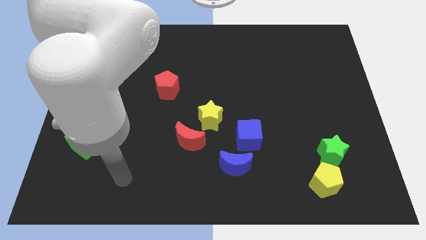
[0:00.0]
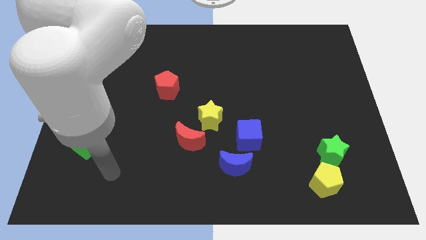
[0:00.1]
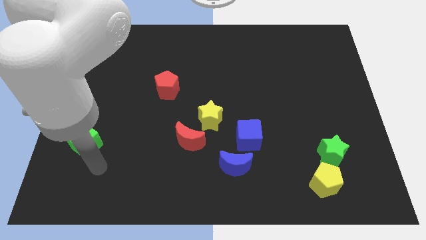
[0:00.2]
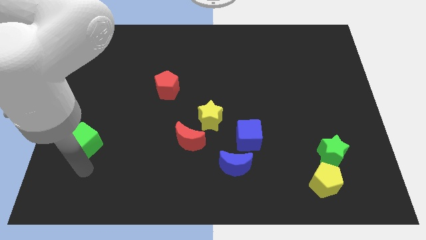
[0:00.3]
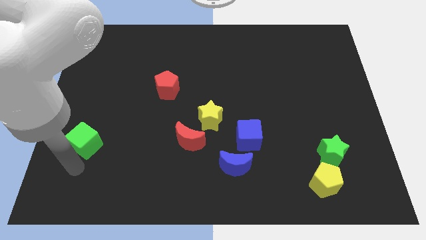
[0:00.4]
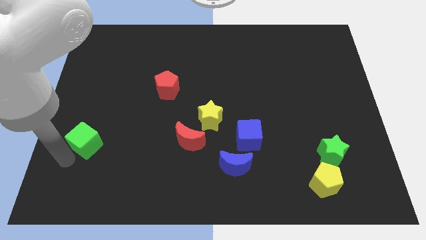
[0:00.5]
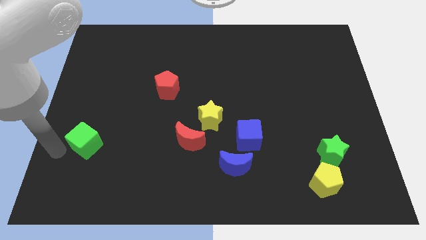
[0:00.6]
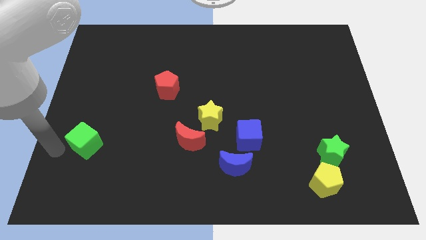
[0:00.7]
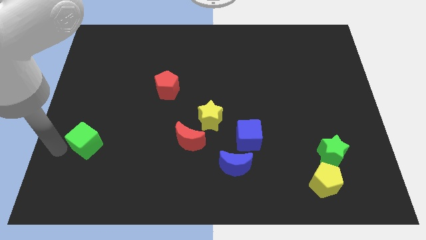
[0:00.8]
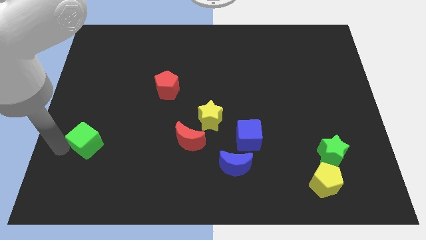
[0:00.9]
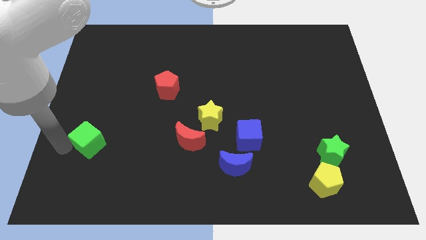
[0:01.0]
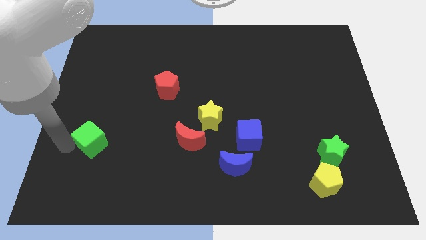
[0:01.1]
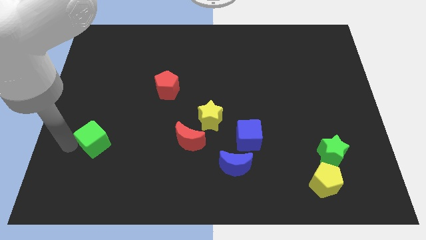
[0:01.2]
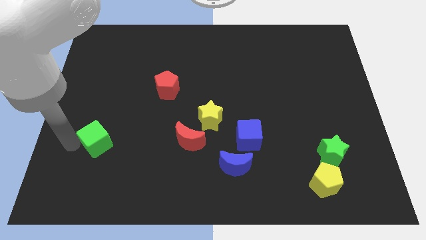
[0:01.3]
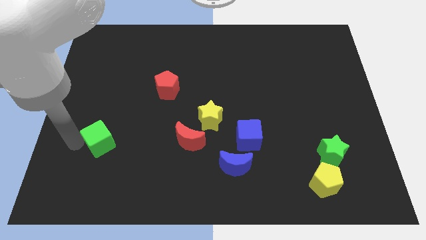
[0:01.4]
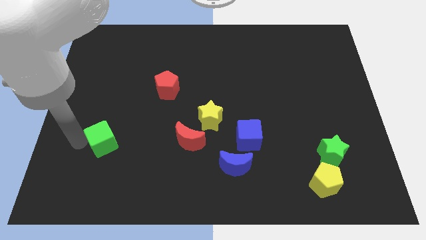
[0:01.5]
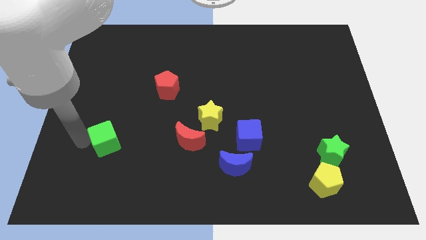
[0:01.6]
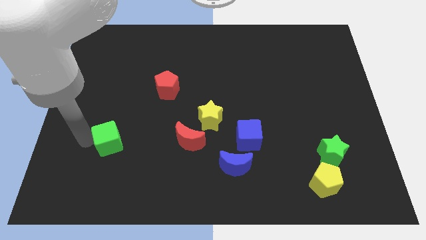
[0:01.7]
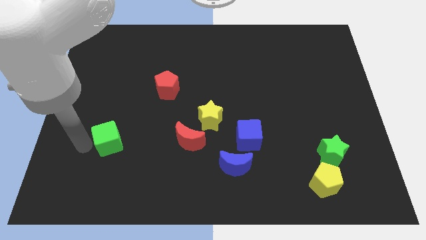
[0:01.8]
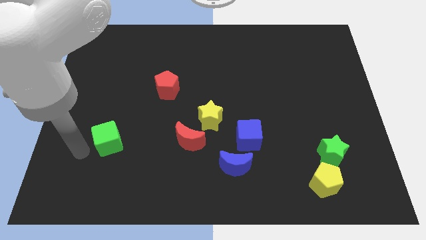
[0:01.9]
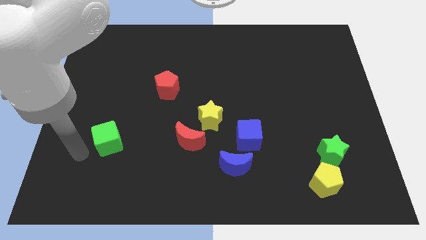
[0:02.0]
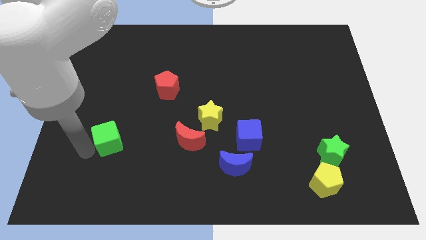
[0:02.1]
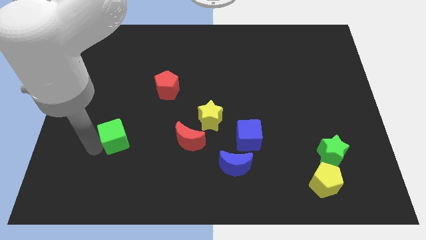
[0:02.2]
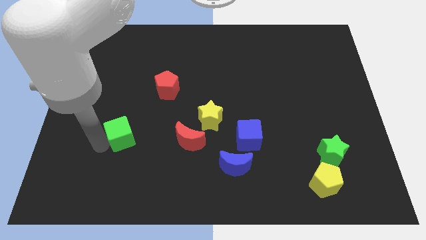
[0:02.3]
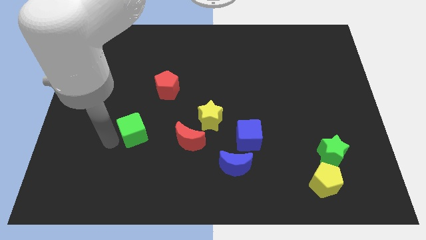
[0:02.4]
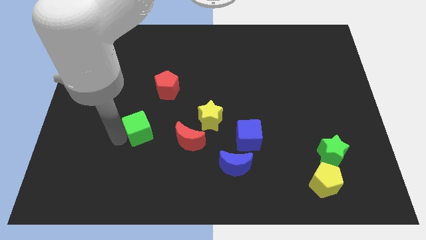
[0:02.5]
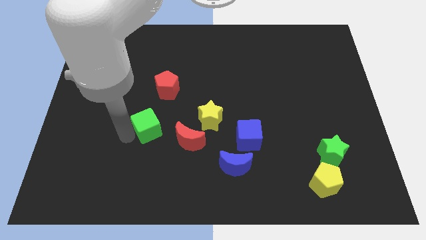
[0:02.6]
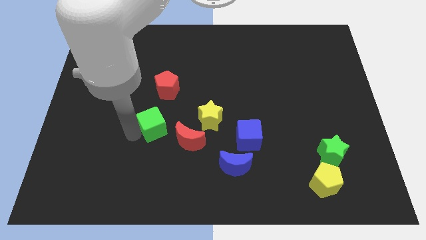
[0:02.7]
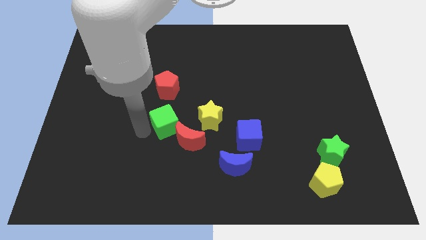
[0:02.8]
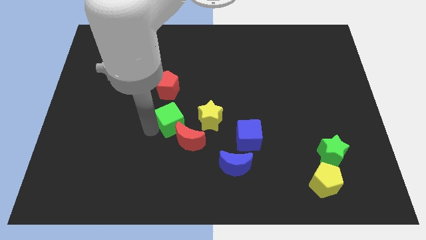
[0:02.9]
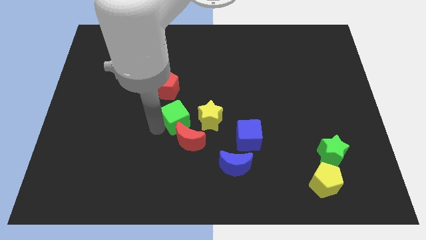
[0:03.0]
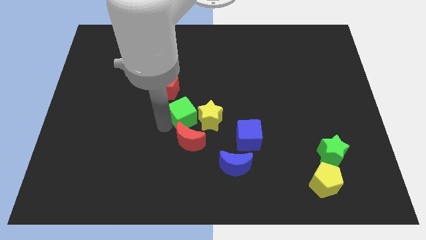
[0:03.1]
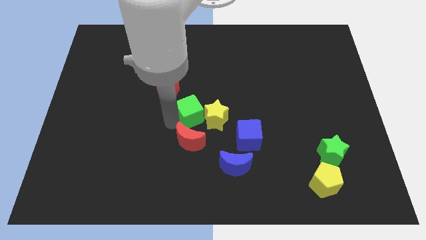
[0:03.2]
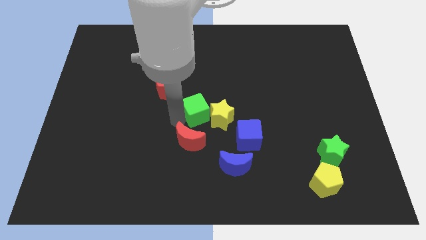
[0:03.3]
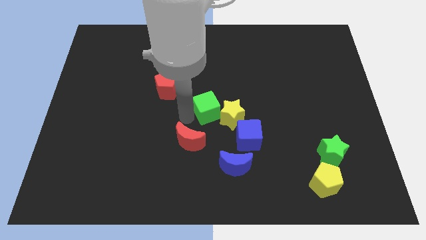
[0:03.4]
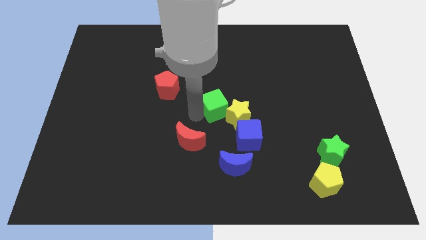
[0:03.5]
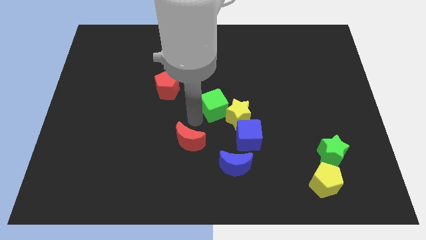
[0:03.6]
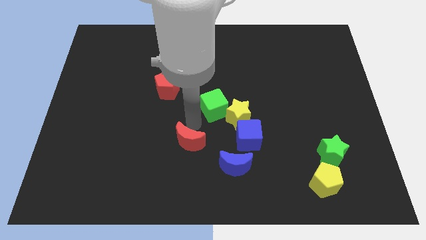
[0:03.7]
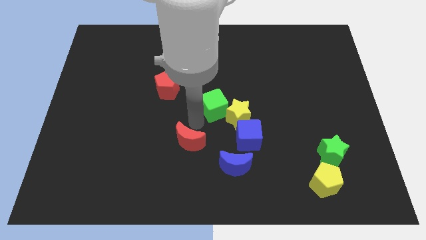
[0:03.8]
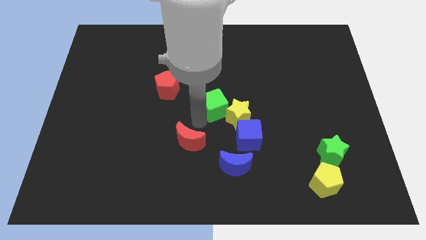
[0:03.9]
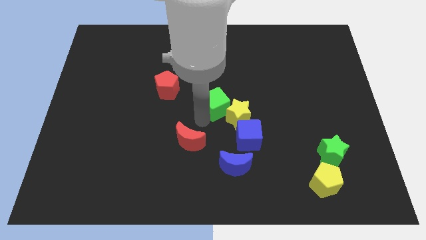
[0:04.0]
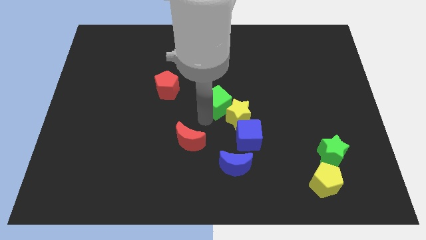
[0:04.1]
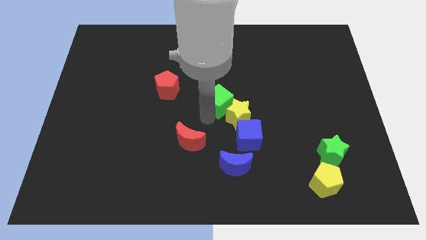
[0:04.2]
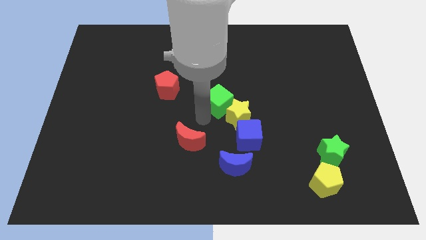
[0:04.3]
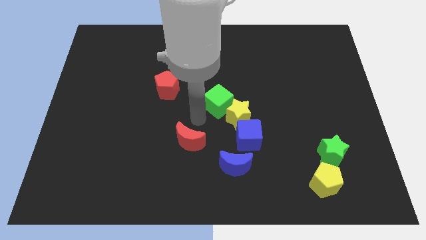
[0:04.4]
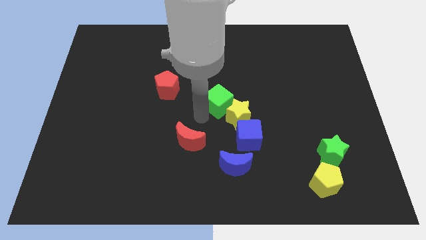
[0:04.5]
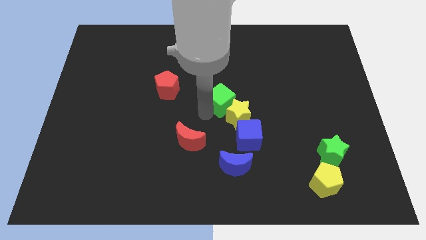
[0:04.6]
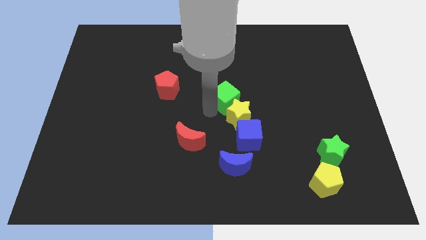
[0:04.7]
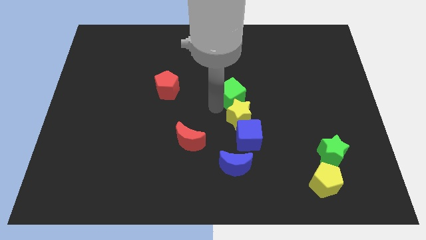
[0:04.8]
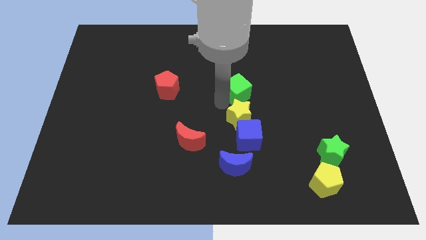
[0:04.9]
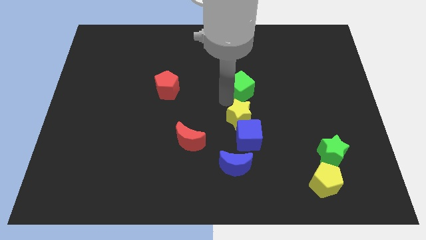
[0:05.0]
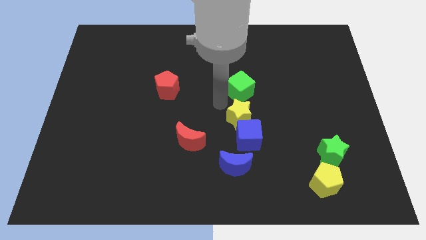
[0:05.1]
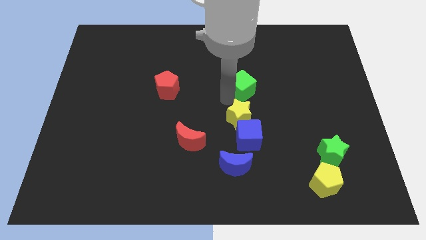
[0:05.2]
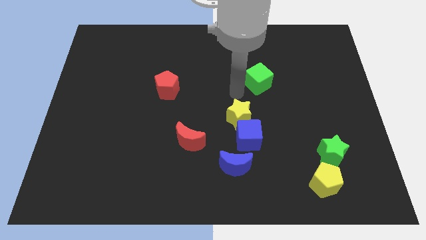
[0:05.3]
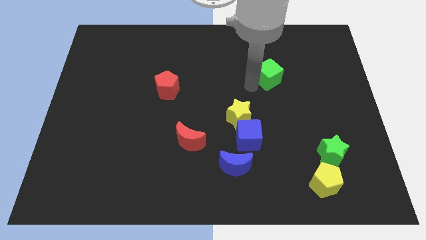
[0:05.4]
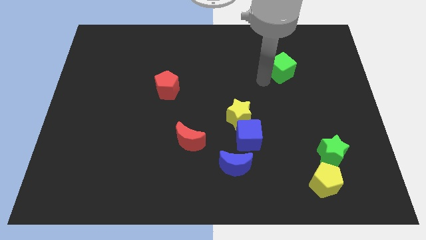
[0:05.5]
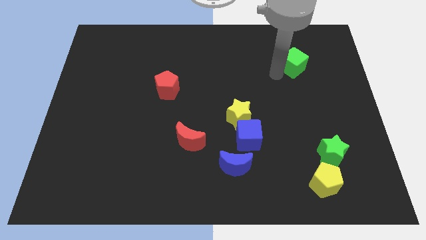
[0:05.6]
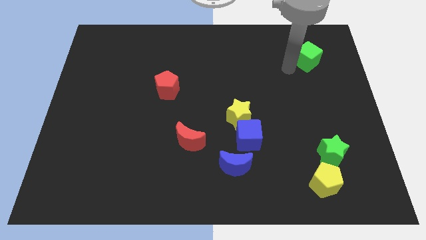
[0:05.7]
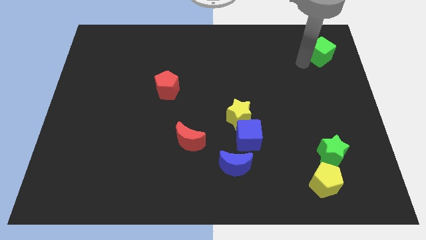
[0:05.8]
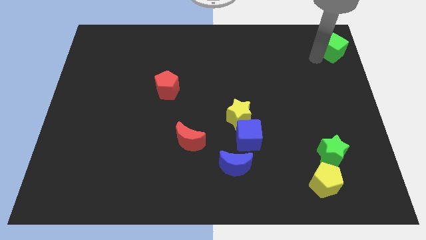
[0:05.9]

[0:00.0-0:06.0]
put the green cube to the top right corner

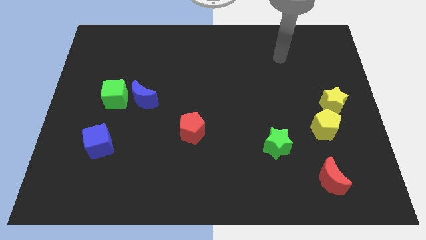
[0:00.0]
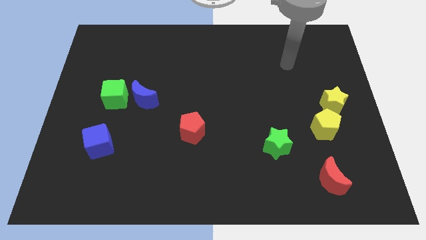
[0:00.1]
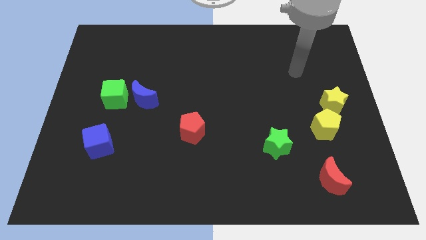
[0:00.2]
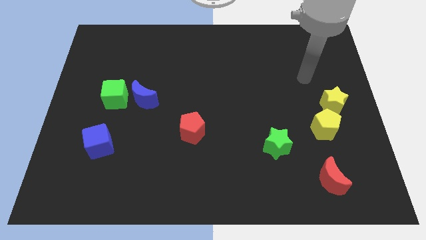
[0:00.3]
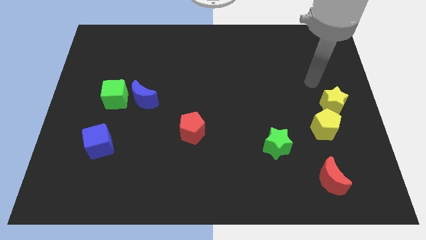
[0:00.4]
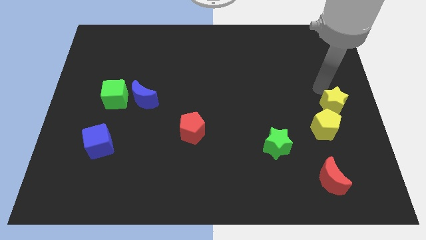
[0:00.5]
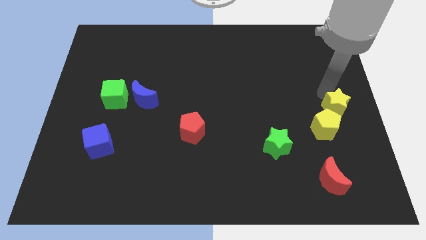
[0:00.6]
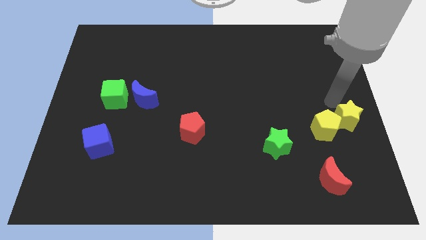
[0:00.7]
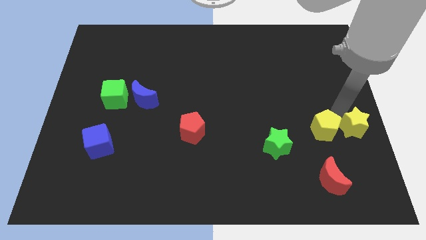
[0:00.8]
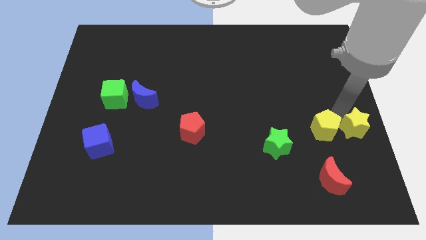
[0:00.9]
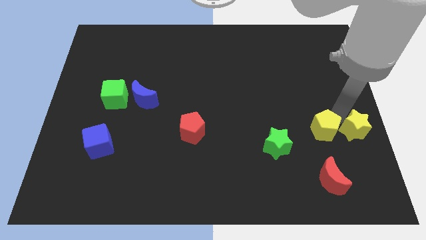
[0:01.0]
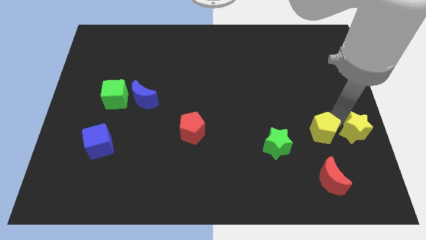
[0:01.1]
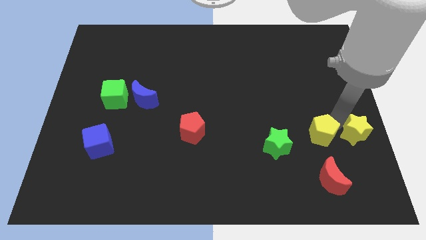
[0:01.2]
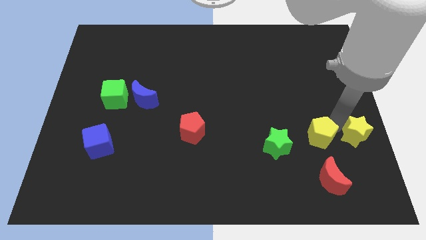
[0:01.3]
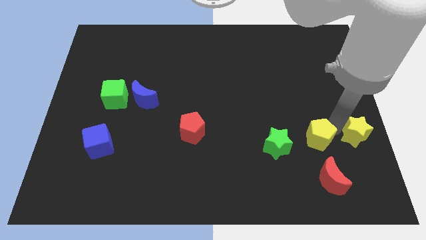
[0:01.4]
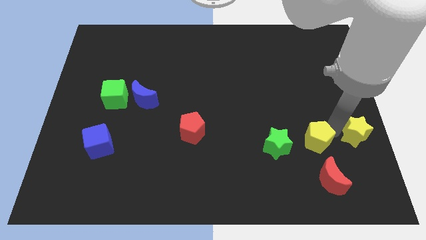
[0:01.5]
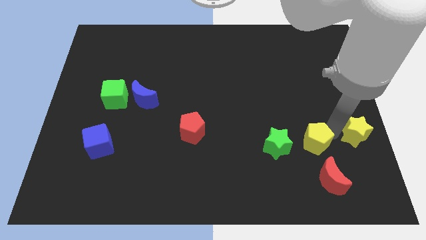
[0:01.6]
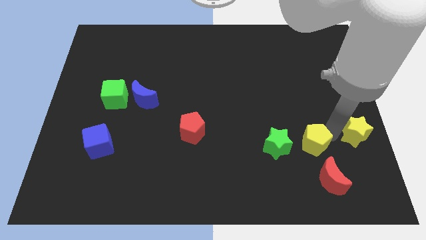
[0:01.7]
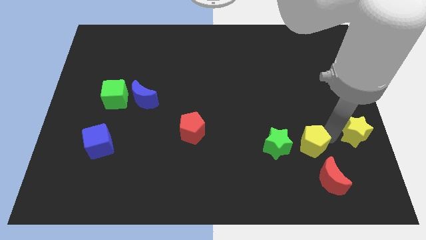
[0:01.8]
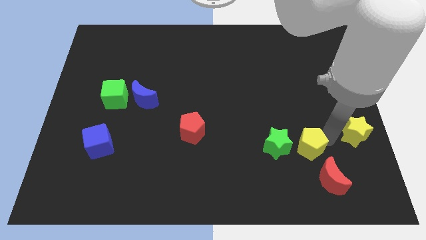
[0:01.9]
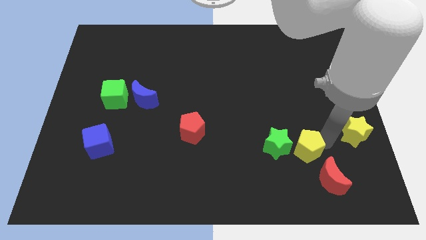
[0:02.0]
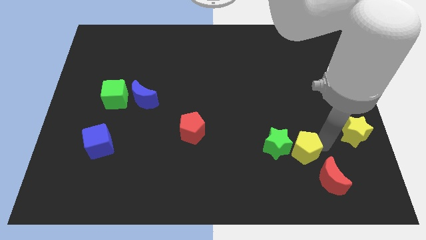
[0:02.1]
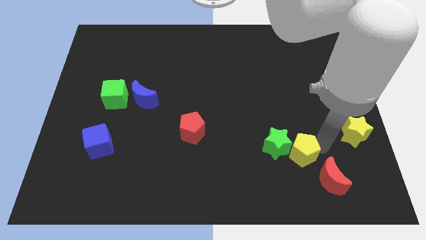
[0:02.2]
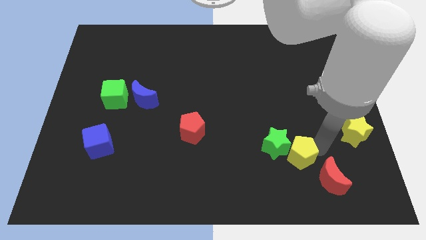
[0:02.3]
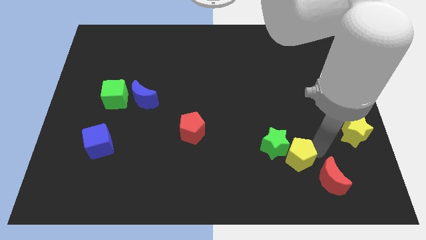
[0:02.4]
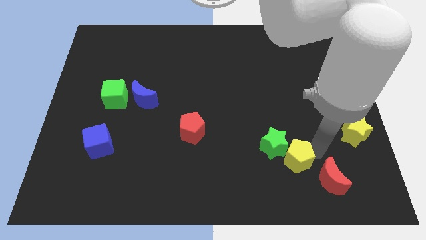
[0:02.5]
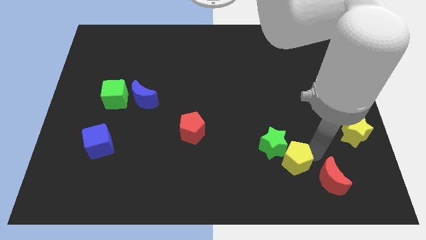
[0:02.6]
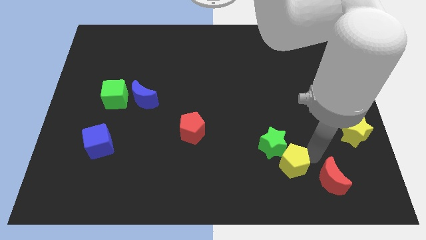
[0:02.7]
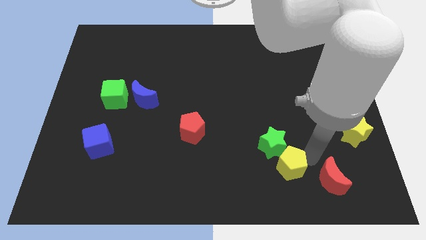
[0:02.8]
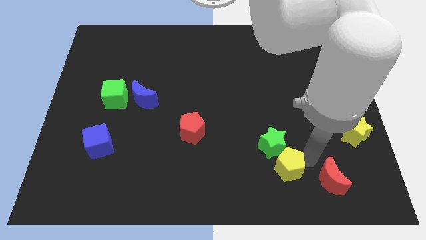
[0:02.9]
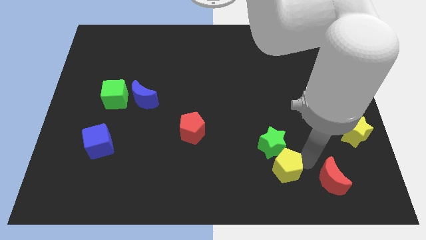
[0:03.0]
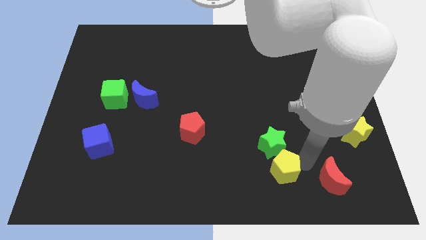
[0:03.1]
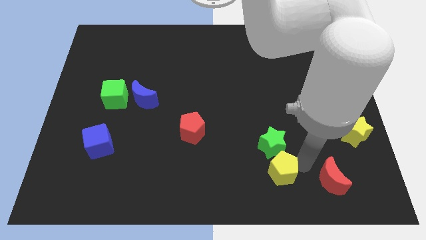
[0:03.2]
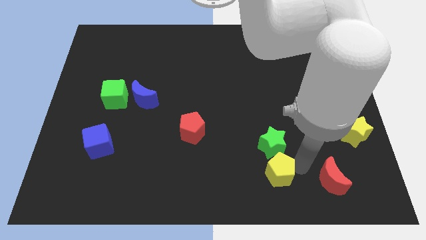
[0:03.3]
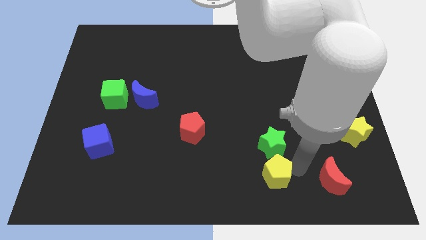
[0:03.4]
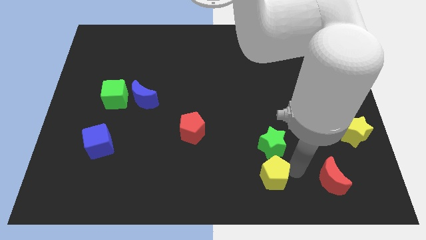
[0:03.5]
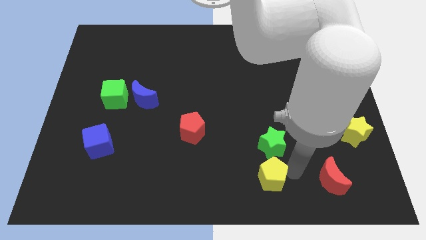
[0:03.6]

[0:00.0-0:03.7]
slide the yellow pentagon to the bottom side
